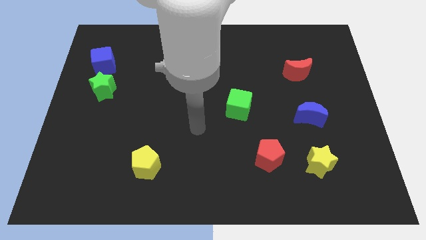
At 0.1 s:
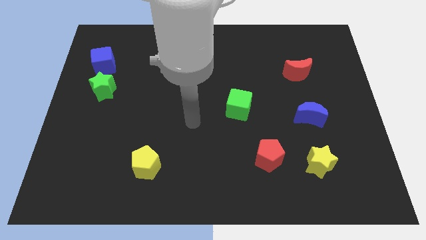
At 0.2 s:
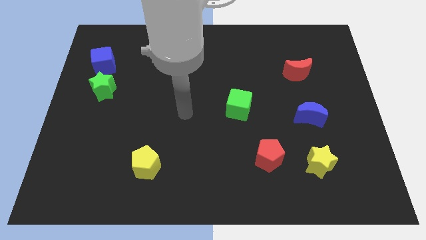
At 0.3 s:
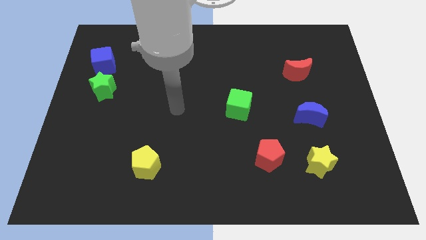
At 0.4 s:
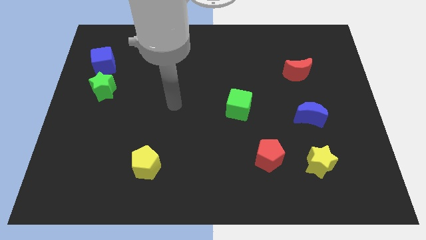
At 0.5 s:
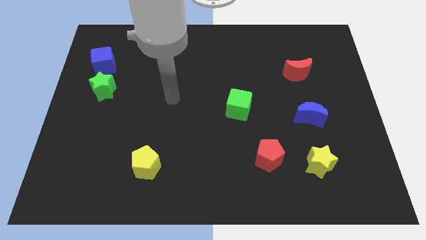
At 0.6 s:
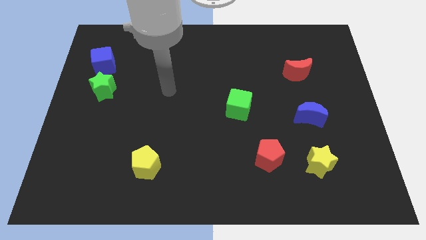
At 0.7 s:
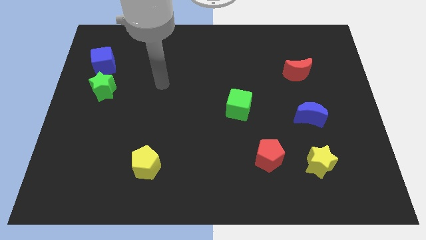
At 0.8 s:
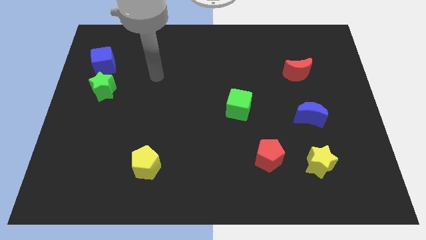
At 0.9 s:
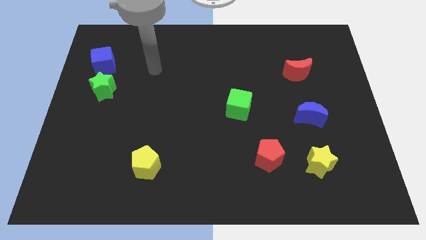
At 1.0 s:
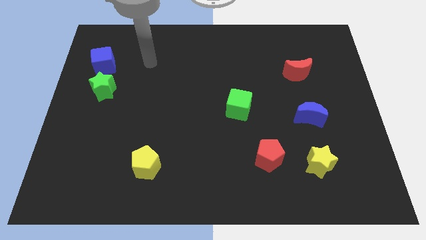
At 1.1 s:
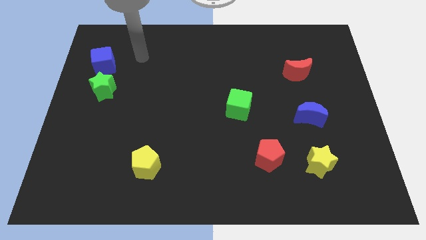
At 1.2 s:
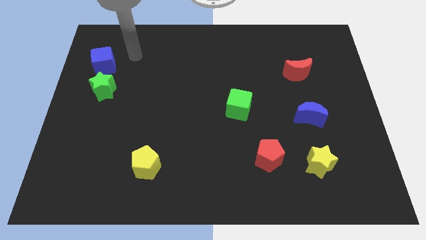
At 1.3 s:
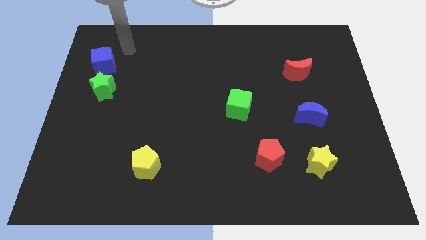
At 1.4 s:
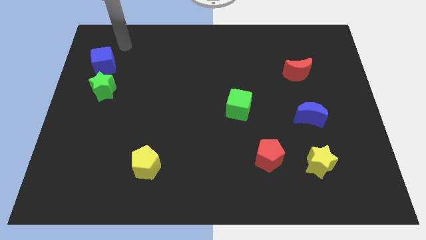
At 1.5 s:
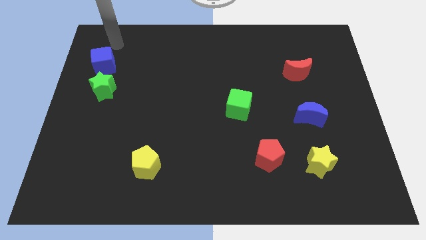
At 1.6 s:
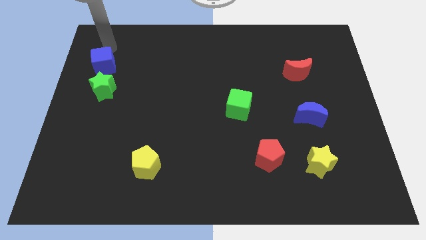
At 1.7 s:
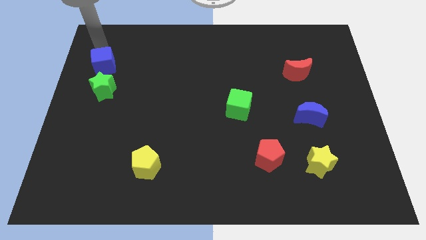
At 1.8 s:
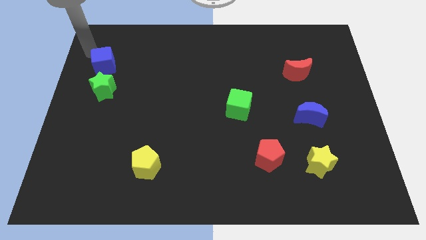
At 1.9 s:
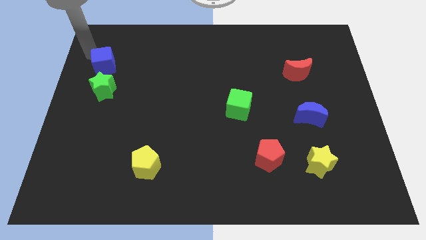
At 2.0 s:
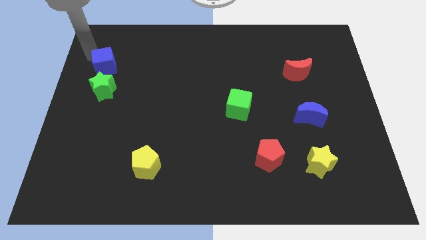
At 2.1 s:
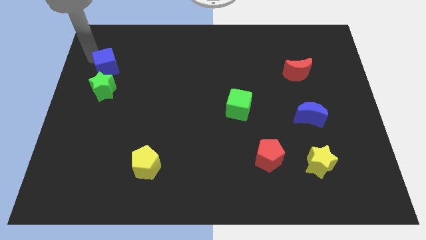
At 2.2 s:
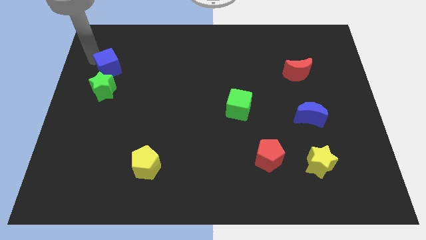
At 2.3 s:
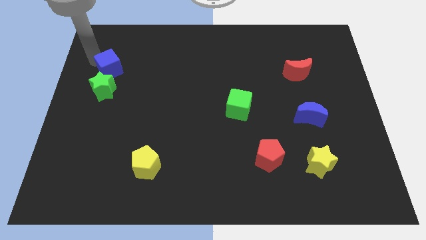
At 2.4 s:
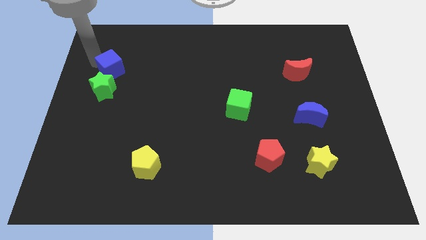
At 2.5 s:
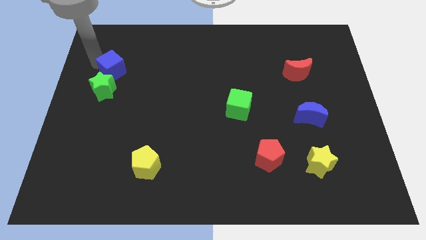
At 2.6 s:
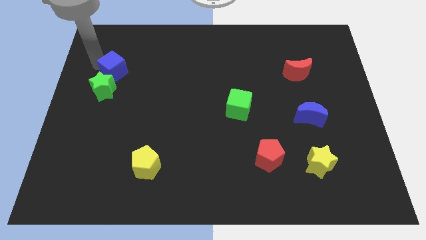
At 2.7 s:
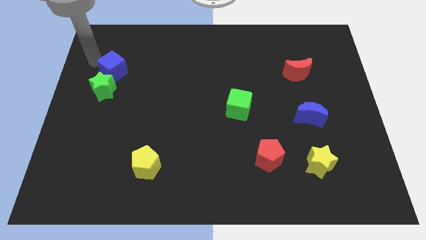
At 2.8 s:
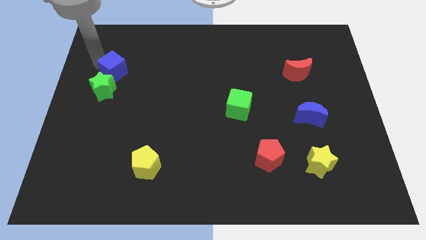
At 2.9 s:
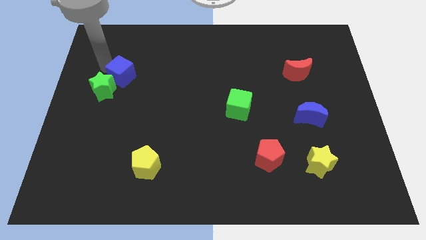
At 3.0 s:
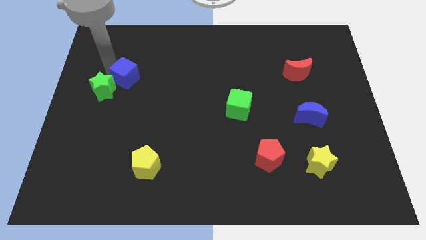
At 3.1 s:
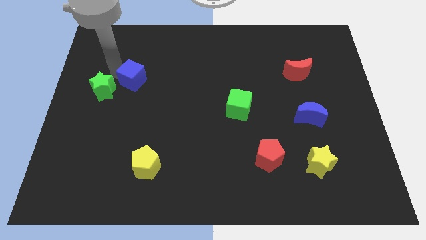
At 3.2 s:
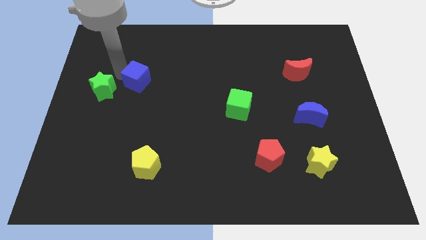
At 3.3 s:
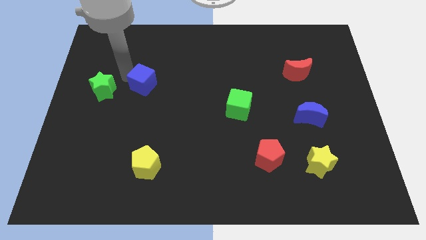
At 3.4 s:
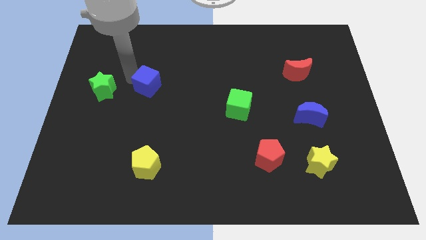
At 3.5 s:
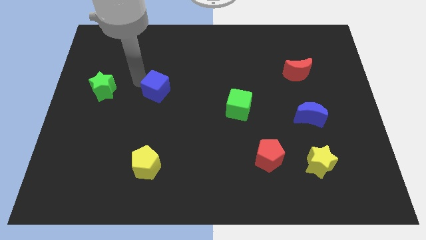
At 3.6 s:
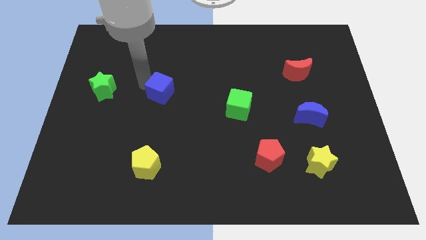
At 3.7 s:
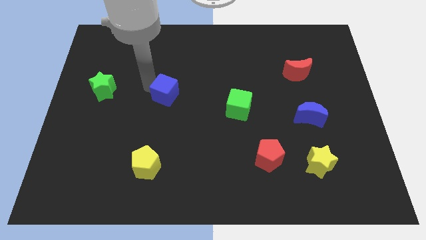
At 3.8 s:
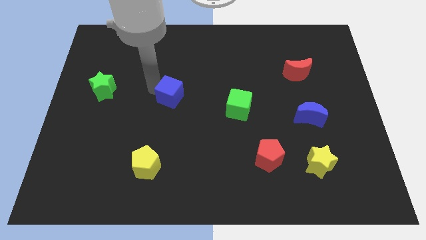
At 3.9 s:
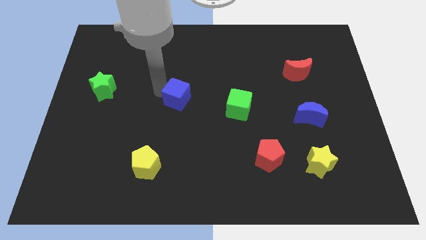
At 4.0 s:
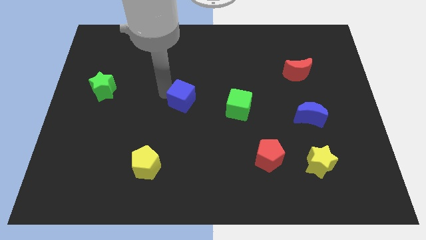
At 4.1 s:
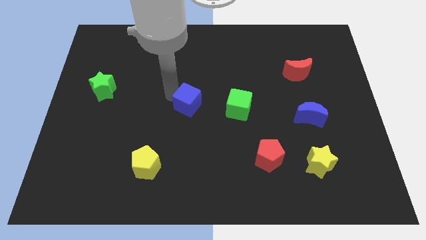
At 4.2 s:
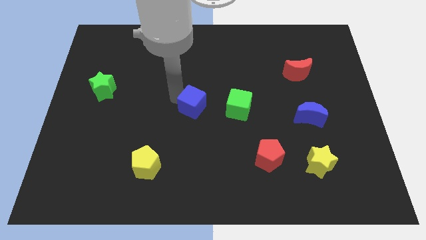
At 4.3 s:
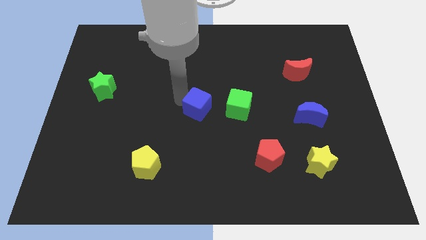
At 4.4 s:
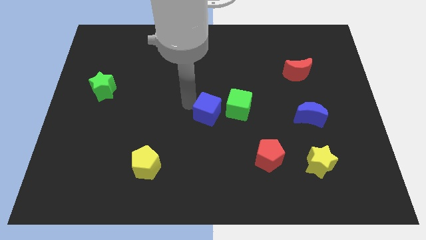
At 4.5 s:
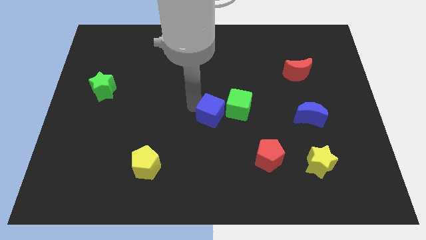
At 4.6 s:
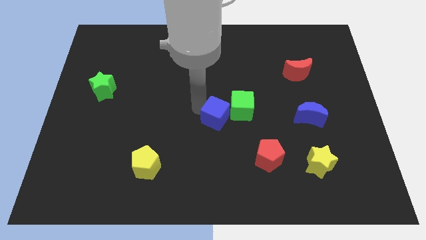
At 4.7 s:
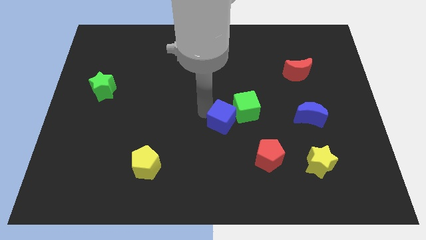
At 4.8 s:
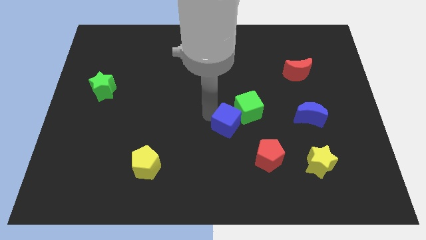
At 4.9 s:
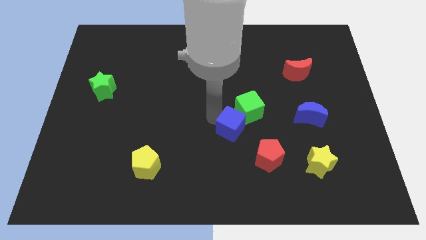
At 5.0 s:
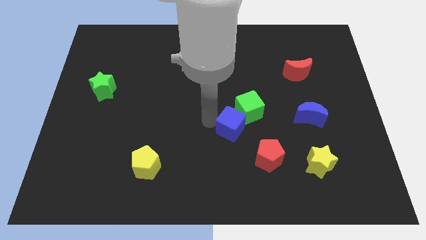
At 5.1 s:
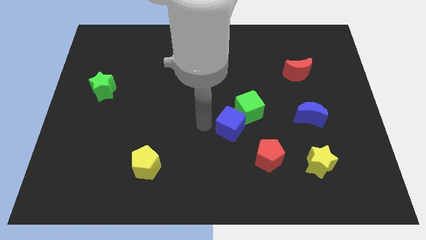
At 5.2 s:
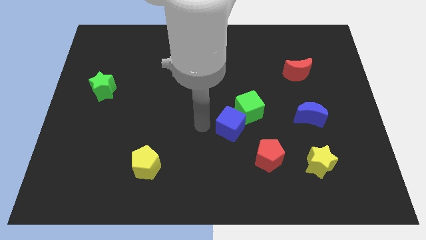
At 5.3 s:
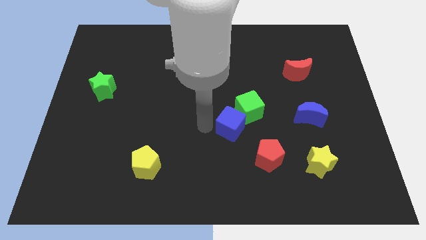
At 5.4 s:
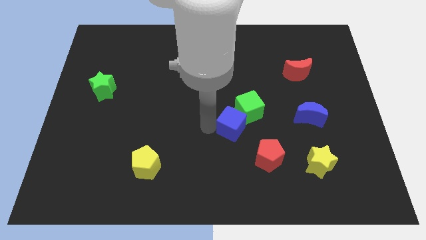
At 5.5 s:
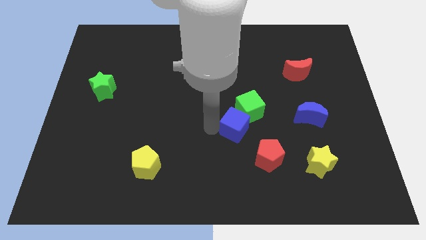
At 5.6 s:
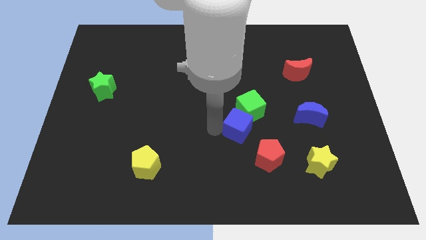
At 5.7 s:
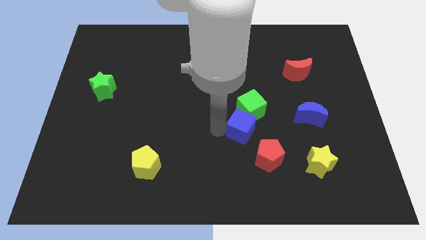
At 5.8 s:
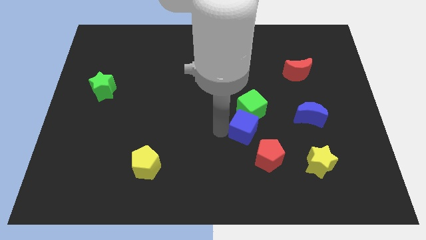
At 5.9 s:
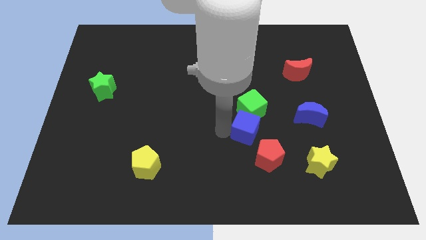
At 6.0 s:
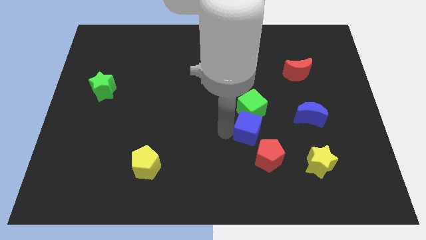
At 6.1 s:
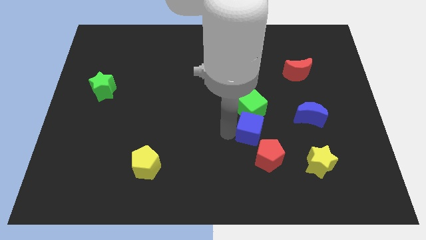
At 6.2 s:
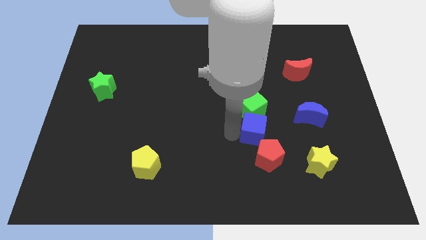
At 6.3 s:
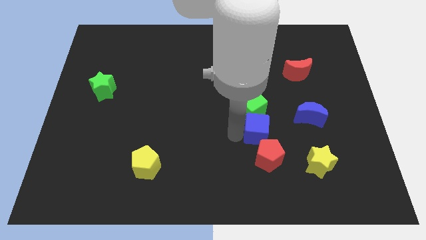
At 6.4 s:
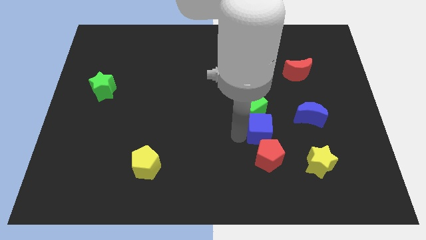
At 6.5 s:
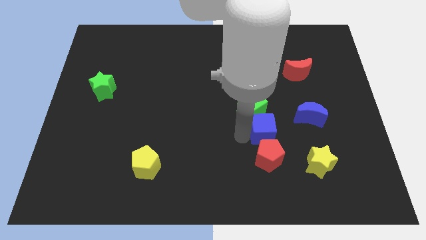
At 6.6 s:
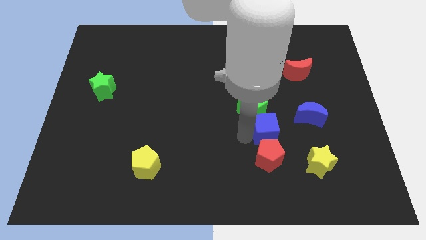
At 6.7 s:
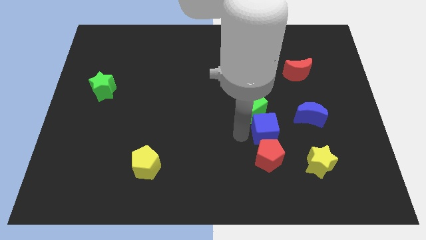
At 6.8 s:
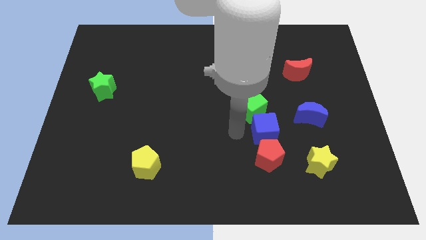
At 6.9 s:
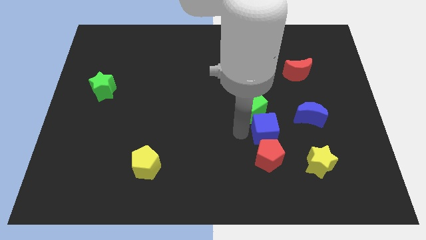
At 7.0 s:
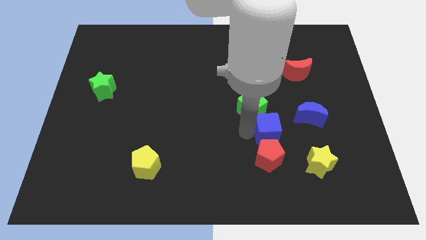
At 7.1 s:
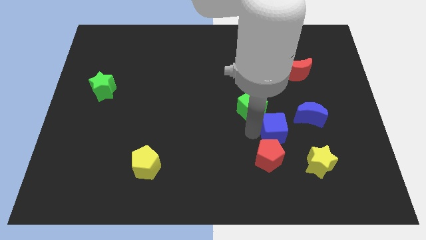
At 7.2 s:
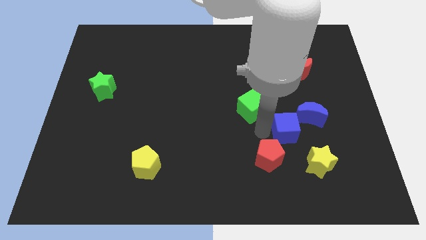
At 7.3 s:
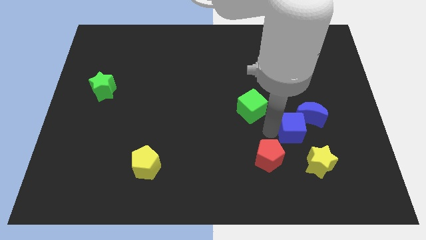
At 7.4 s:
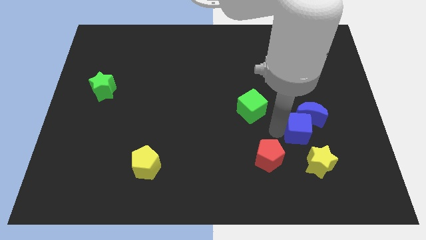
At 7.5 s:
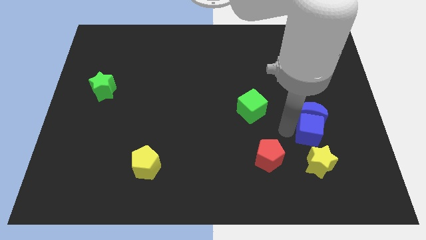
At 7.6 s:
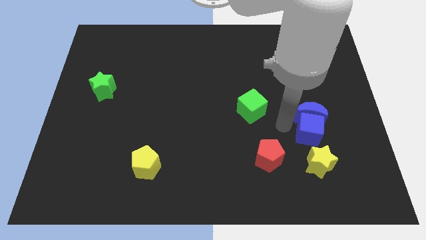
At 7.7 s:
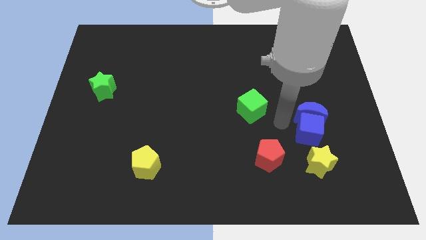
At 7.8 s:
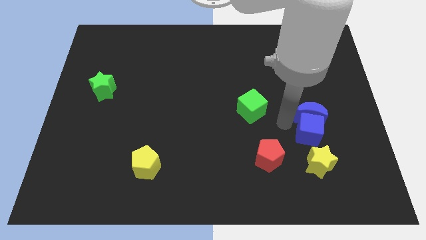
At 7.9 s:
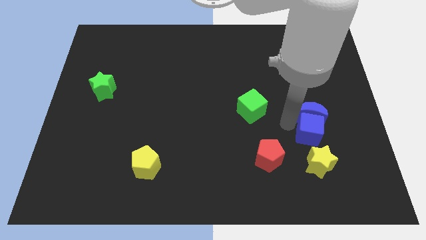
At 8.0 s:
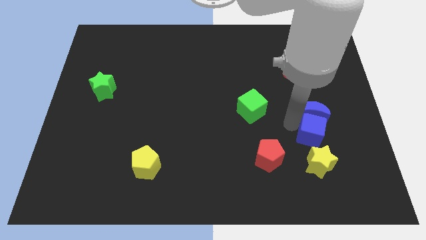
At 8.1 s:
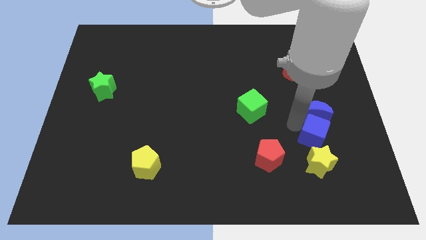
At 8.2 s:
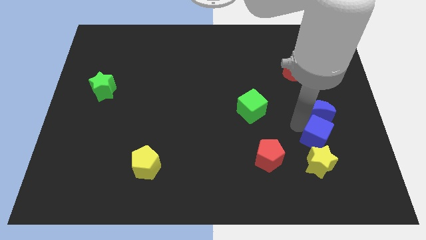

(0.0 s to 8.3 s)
push the blue cube diagonally up and to the right of the yellow star
